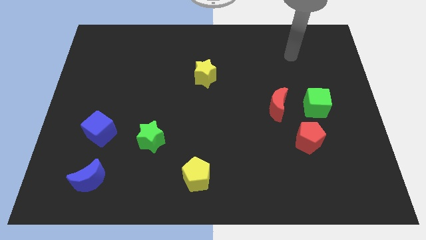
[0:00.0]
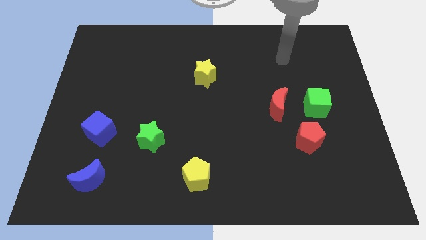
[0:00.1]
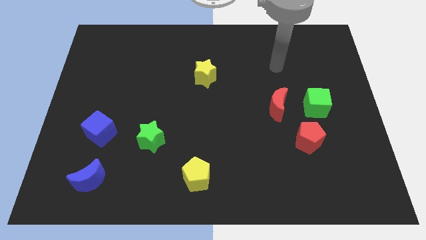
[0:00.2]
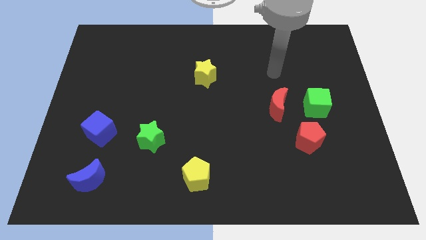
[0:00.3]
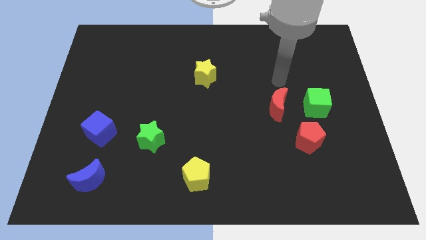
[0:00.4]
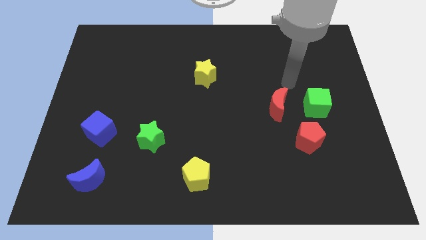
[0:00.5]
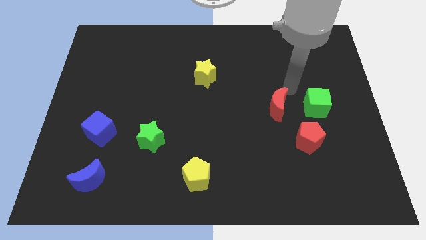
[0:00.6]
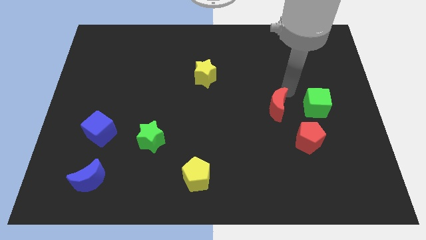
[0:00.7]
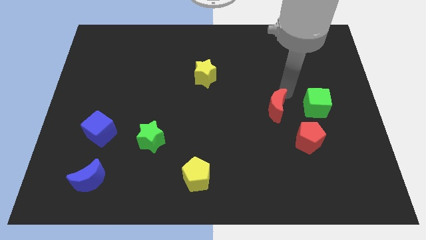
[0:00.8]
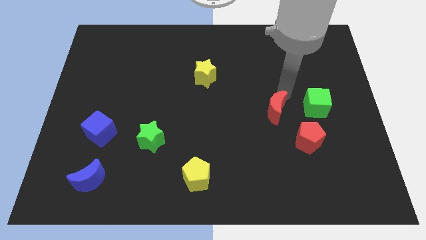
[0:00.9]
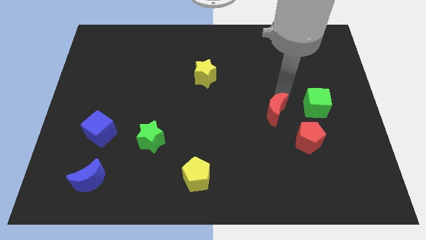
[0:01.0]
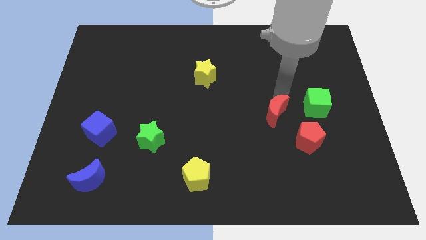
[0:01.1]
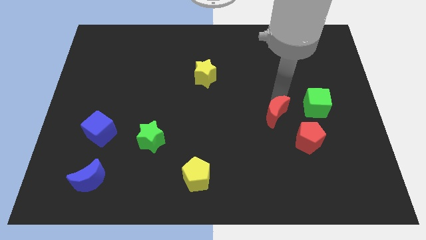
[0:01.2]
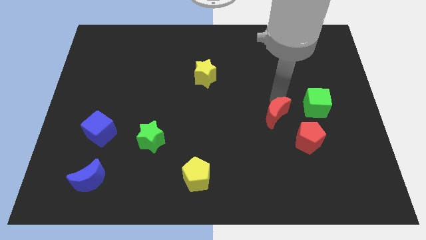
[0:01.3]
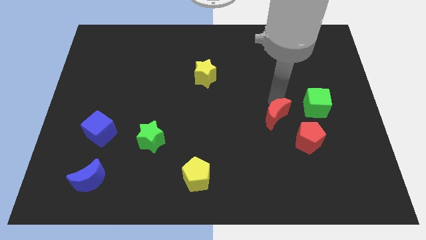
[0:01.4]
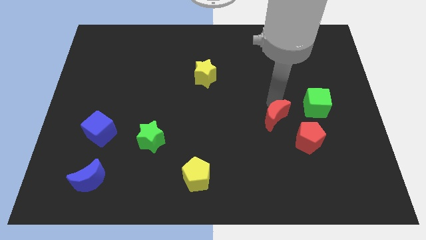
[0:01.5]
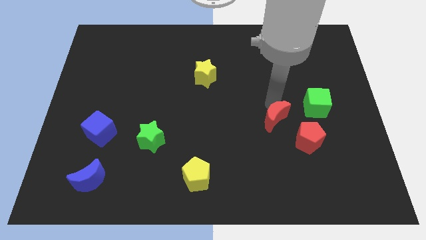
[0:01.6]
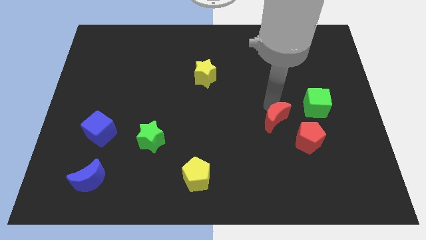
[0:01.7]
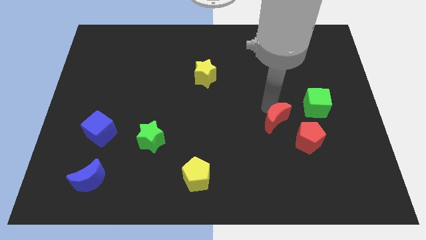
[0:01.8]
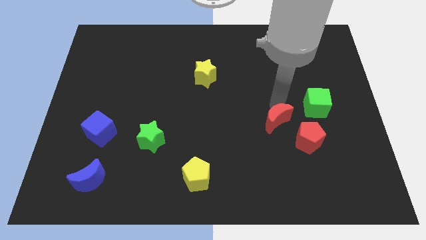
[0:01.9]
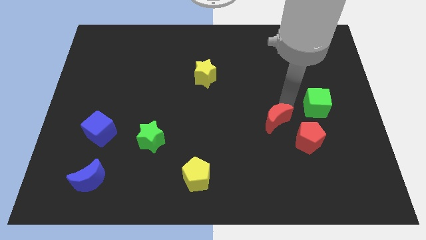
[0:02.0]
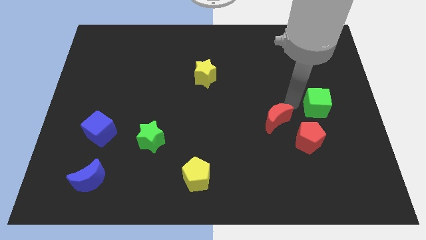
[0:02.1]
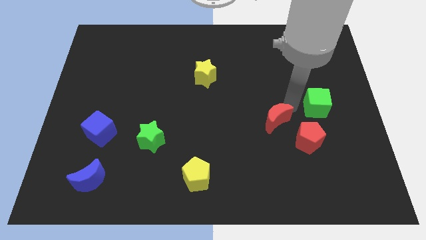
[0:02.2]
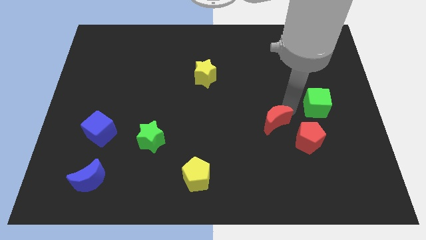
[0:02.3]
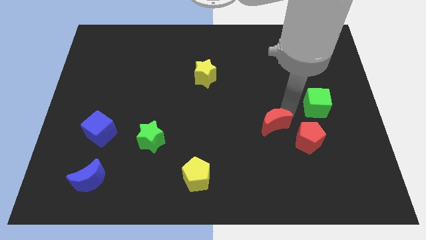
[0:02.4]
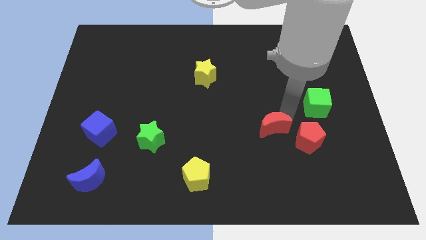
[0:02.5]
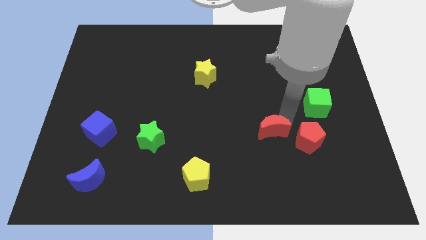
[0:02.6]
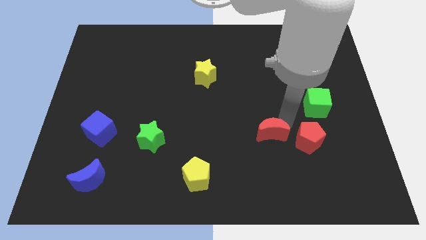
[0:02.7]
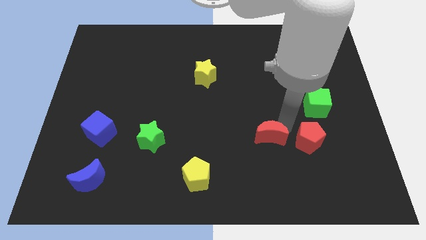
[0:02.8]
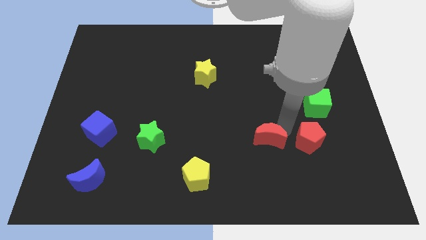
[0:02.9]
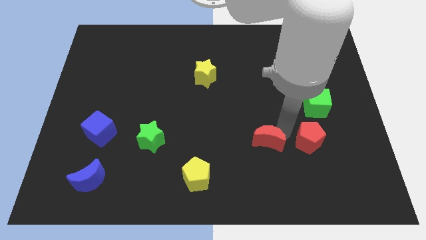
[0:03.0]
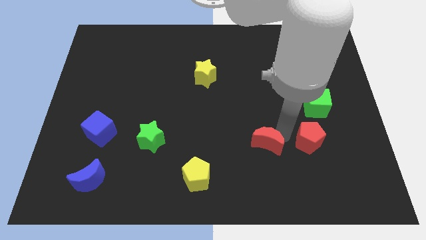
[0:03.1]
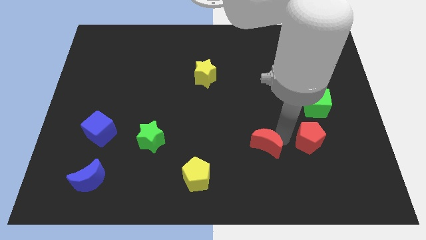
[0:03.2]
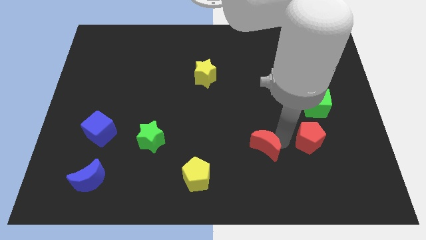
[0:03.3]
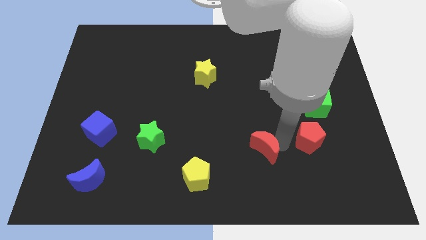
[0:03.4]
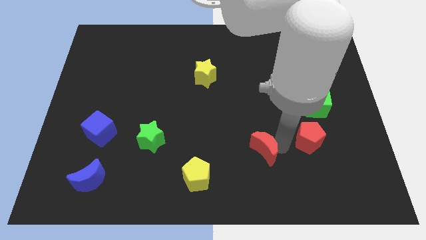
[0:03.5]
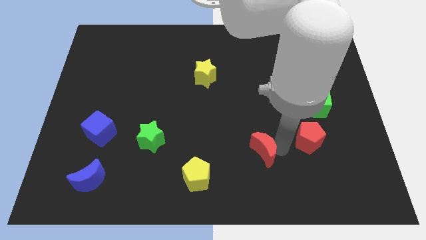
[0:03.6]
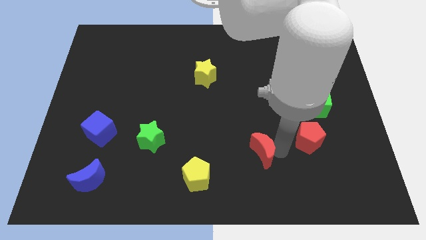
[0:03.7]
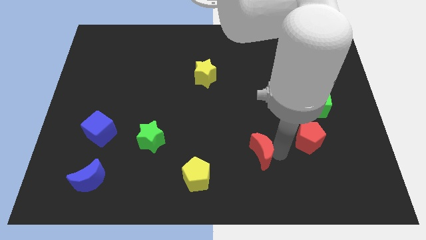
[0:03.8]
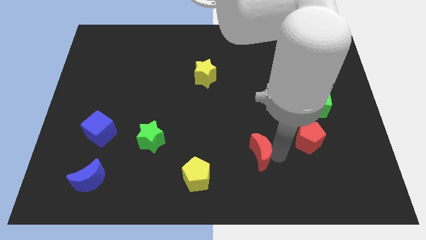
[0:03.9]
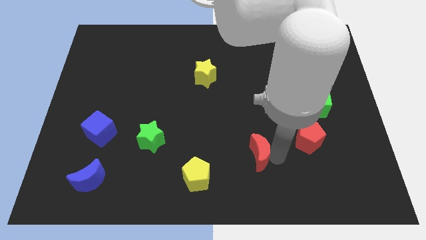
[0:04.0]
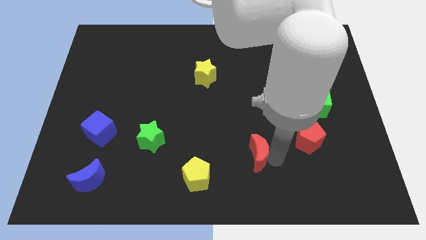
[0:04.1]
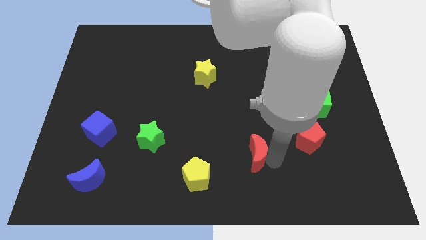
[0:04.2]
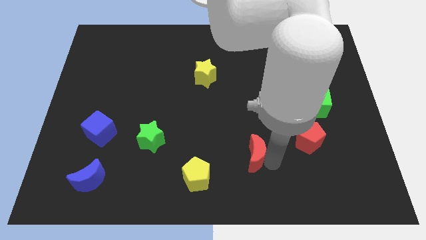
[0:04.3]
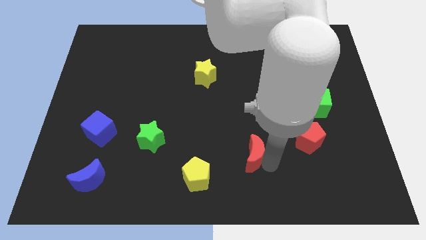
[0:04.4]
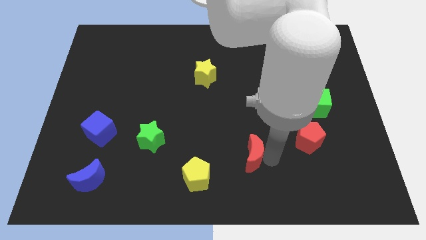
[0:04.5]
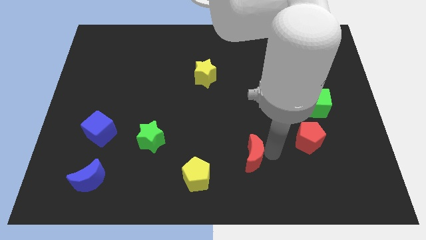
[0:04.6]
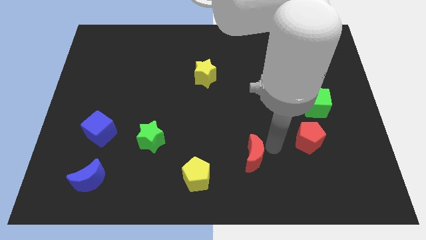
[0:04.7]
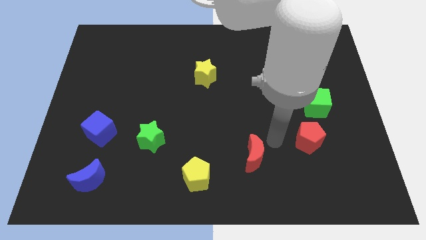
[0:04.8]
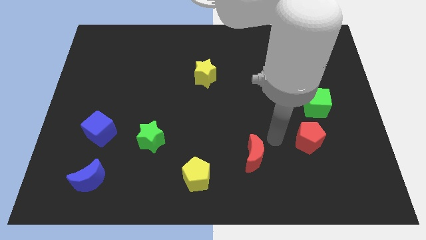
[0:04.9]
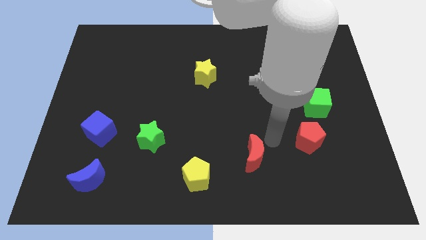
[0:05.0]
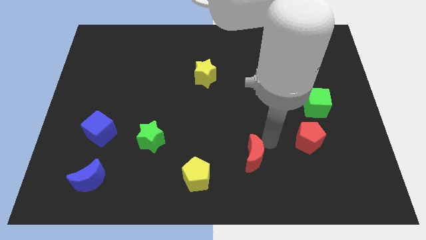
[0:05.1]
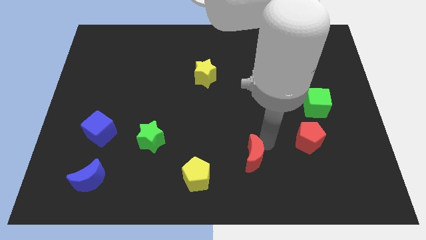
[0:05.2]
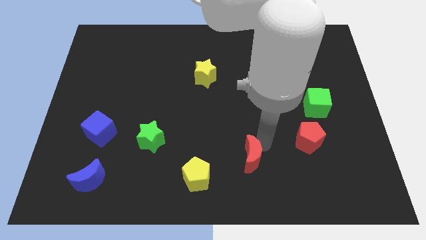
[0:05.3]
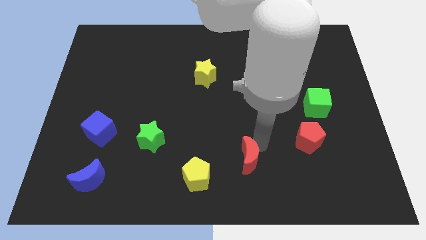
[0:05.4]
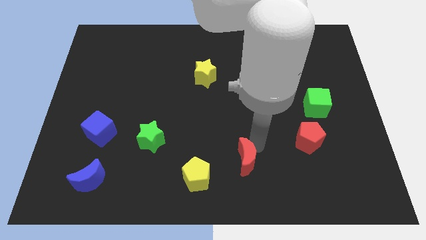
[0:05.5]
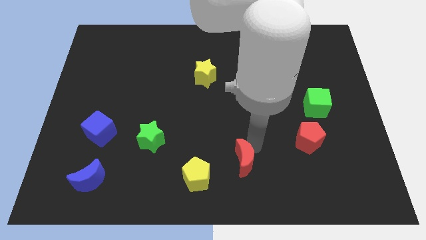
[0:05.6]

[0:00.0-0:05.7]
push the red moon to the bottom
